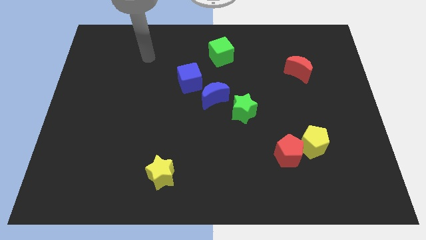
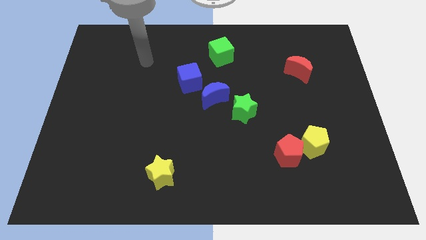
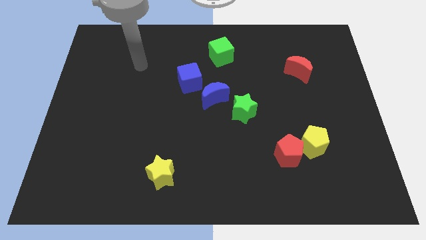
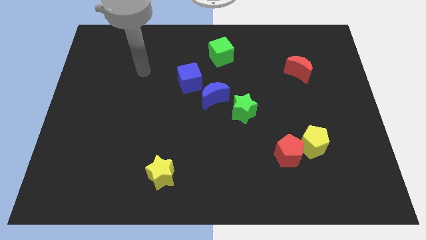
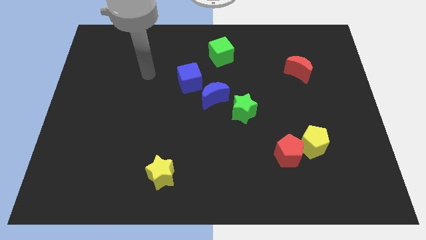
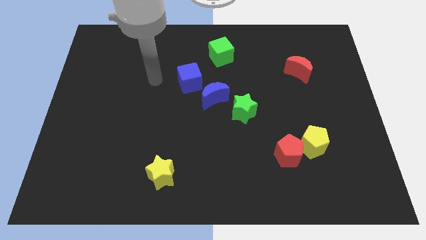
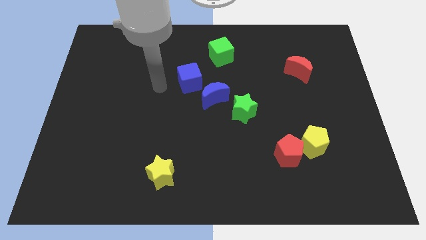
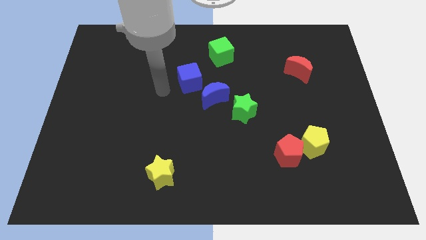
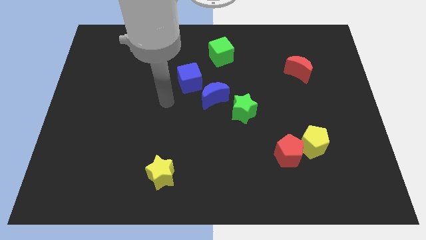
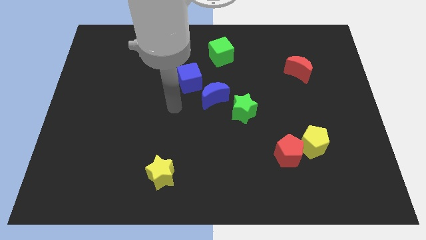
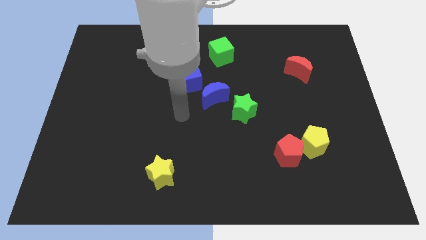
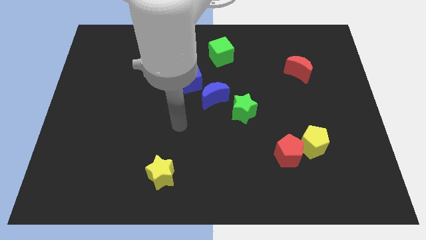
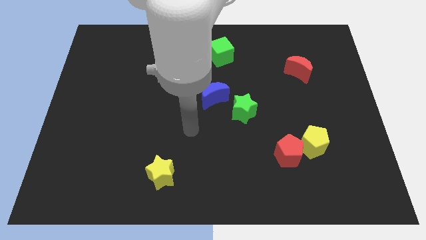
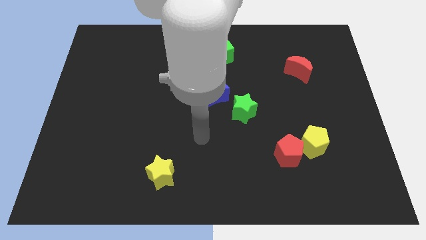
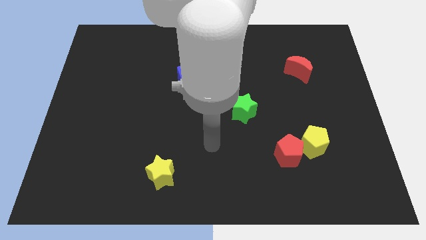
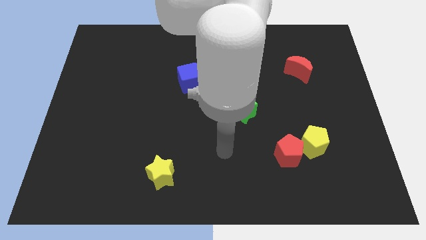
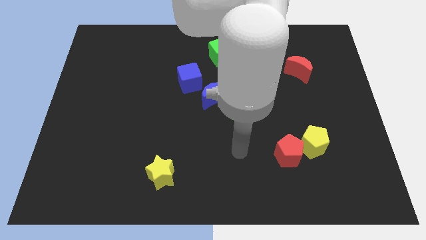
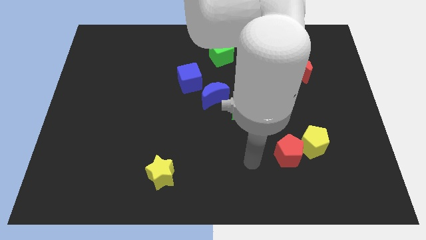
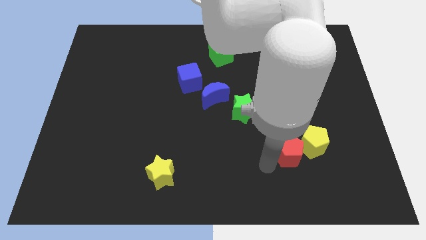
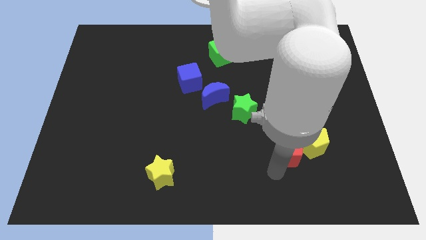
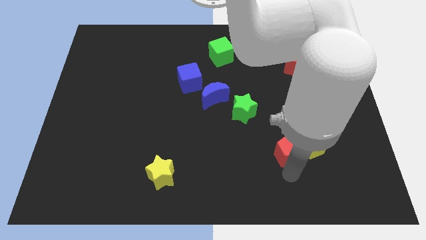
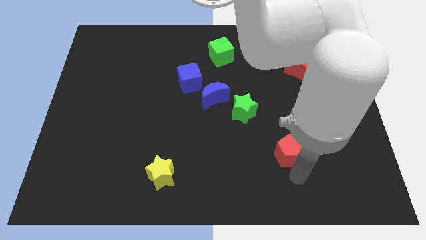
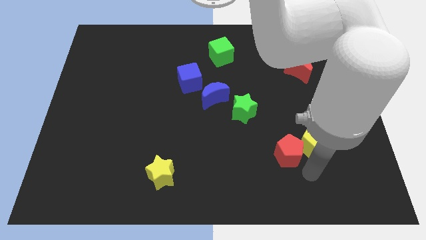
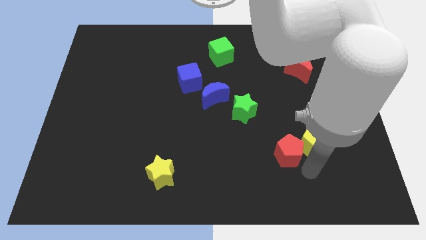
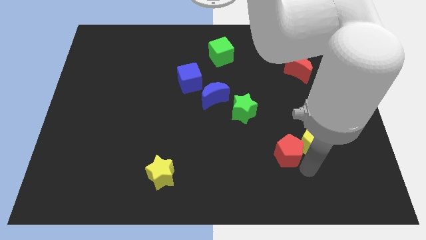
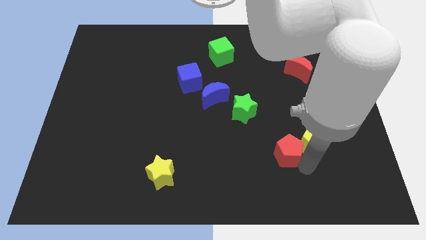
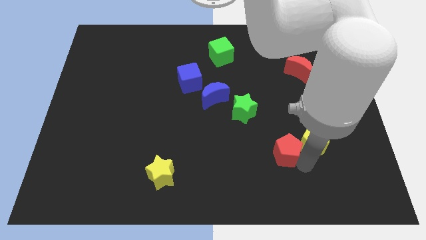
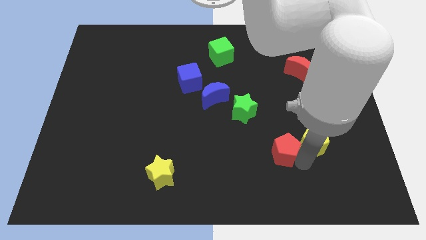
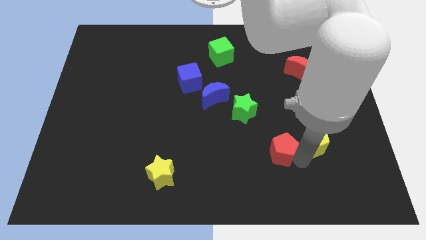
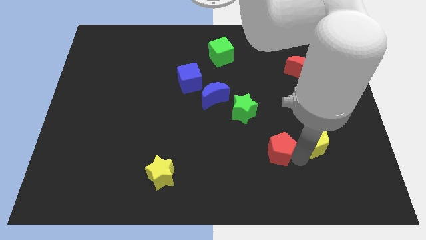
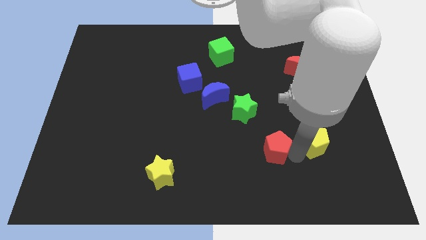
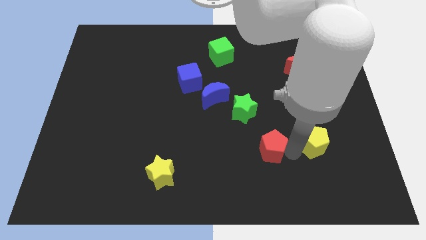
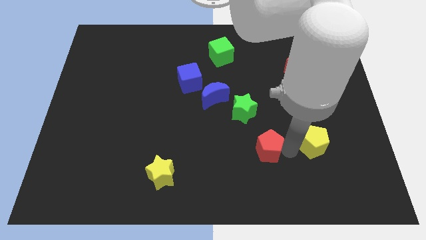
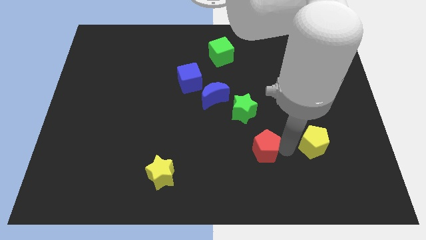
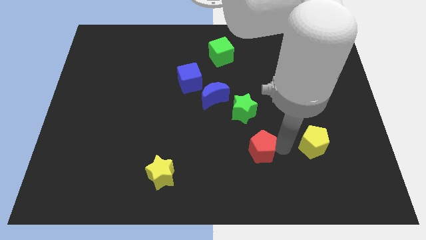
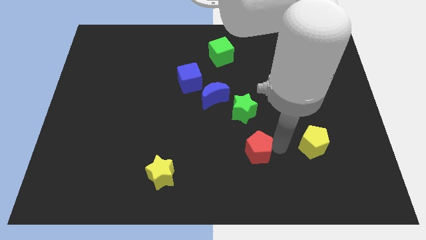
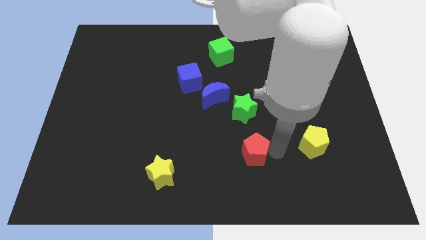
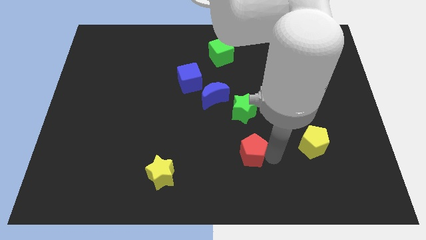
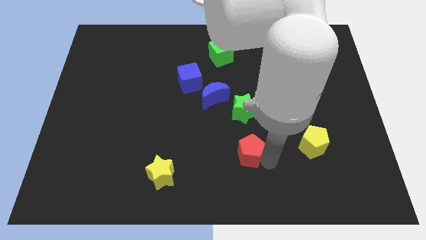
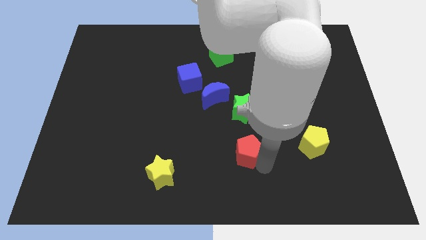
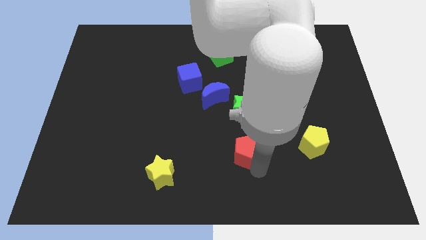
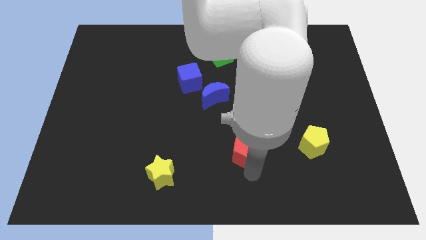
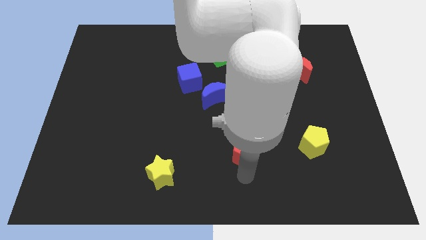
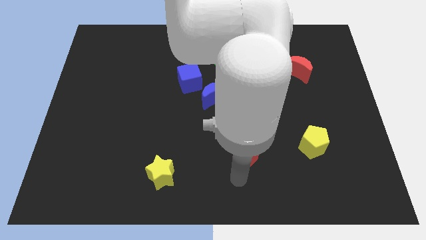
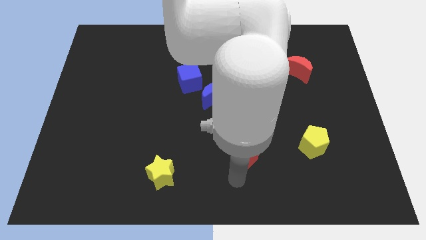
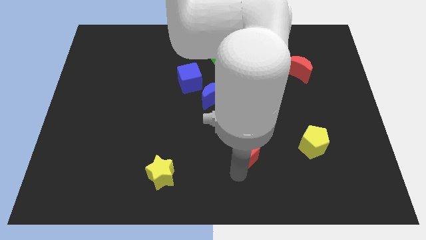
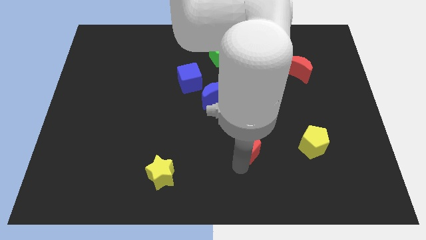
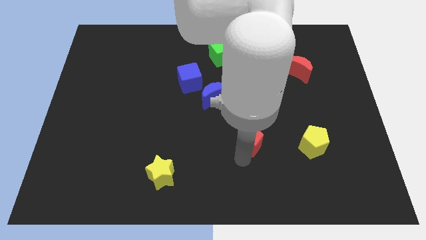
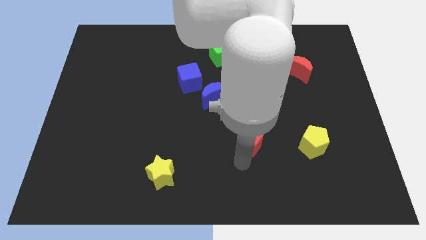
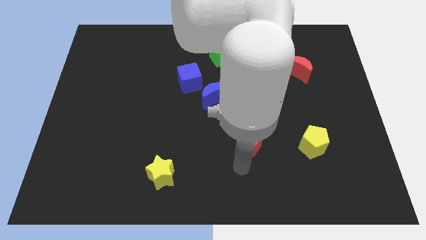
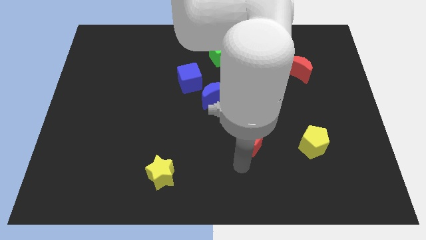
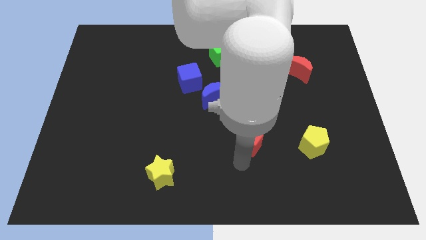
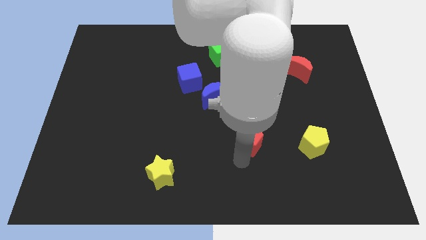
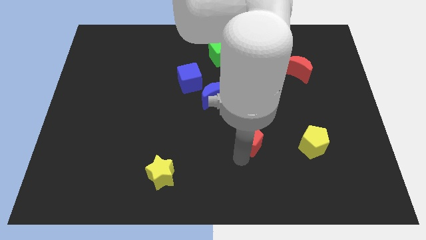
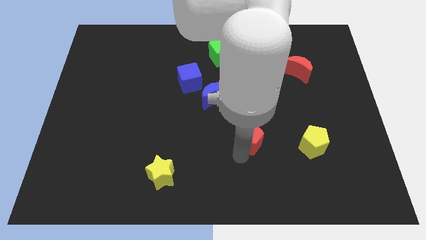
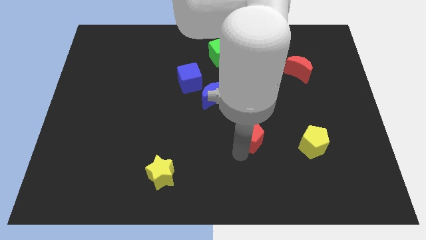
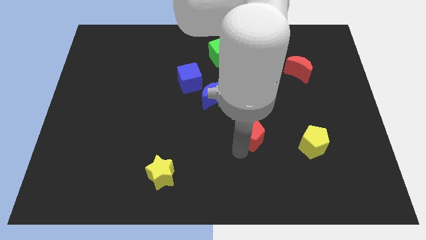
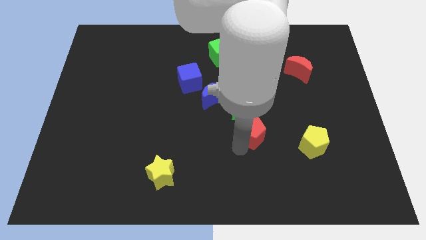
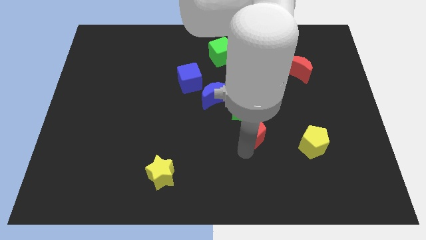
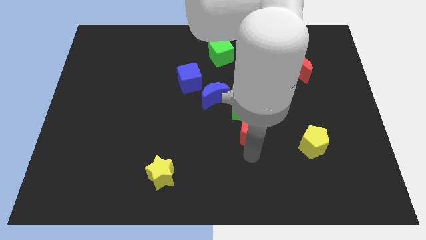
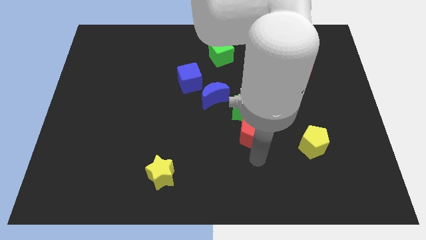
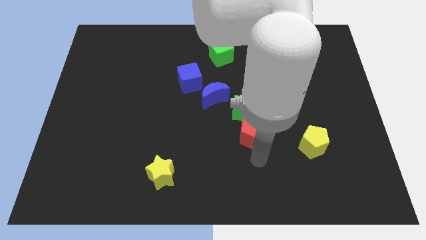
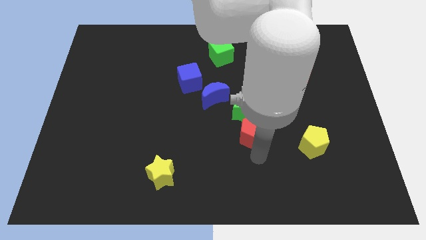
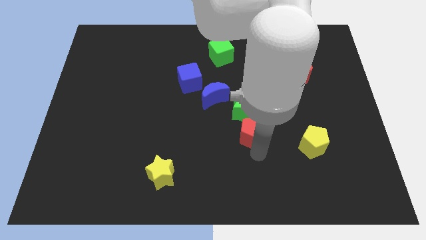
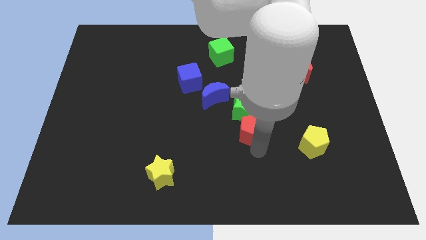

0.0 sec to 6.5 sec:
push the red pentagon towards the green star

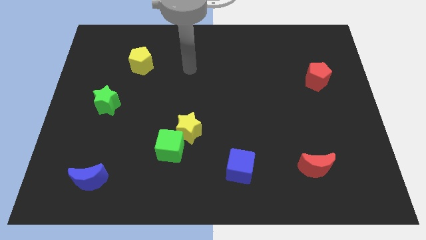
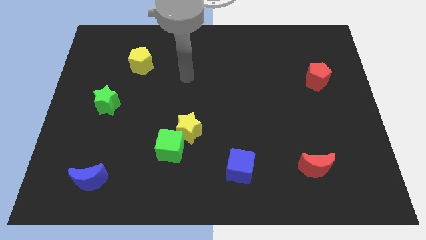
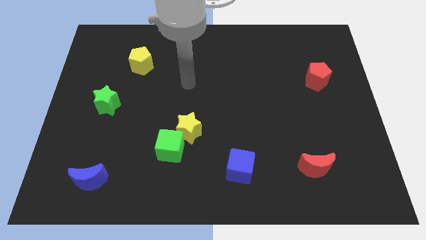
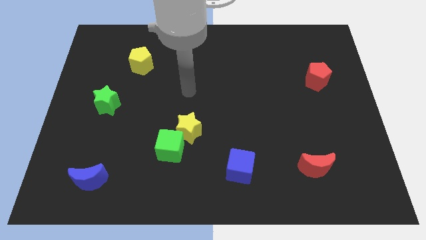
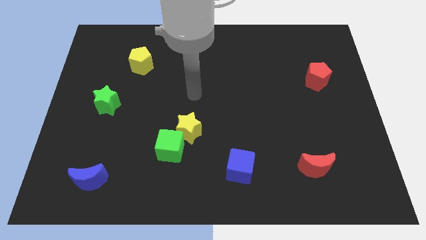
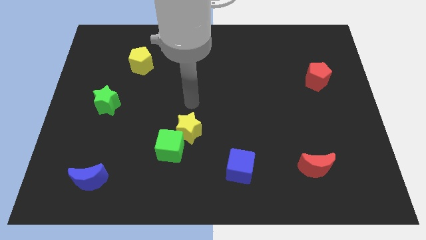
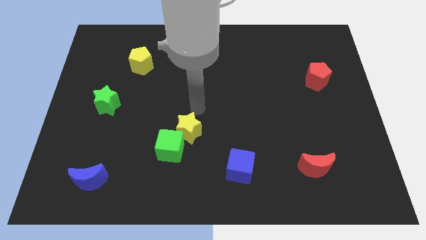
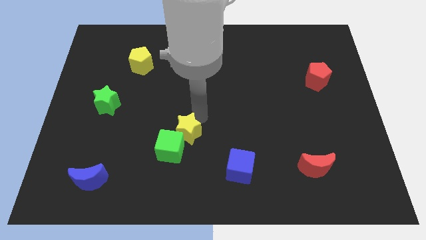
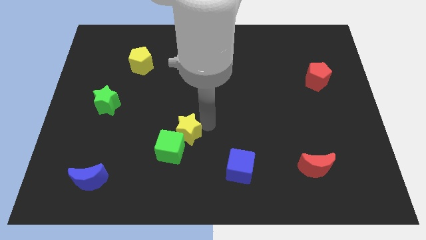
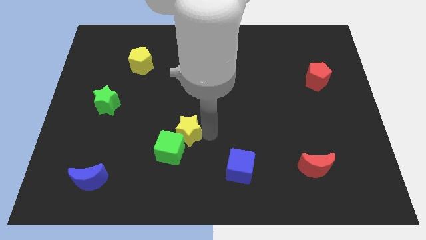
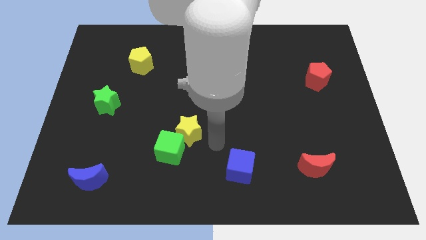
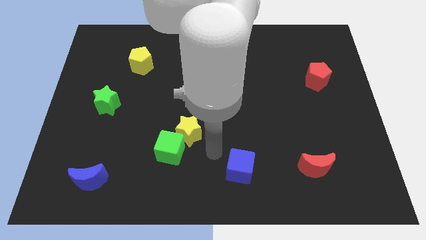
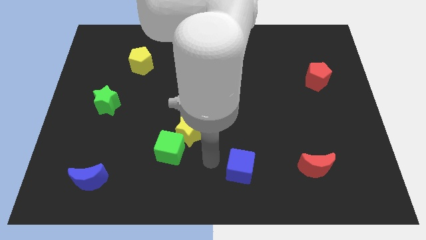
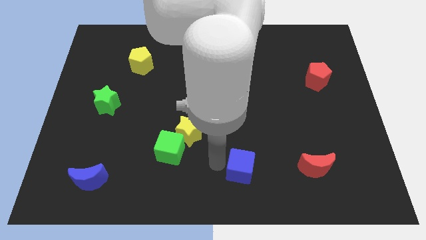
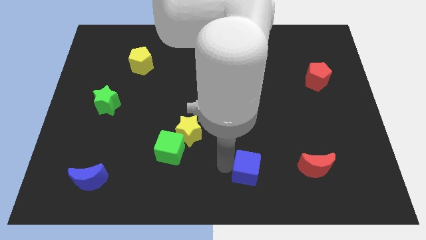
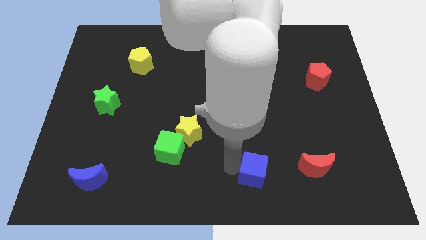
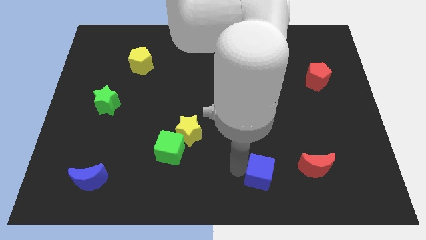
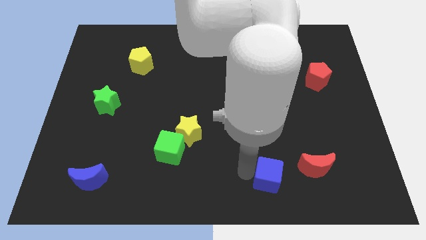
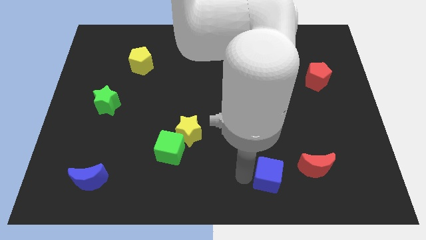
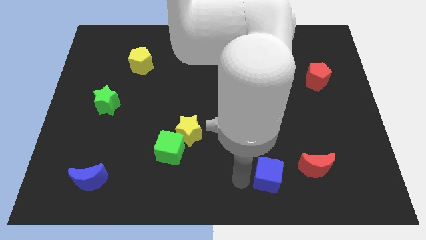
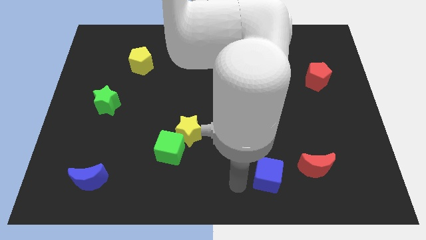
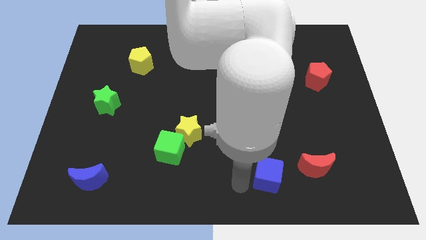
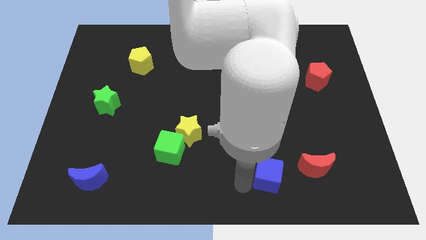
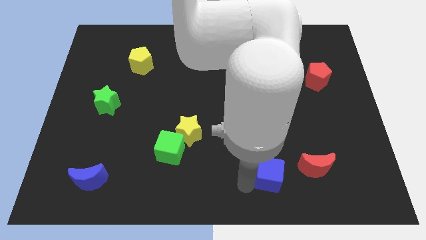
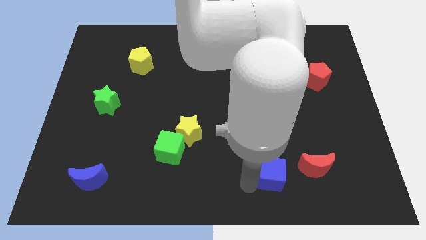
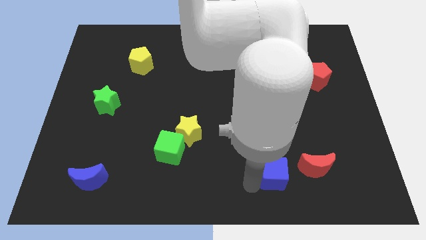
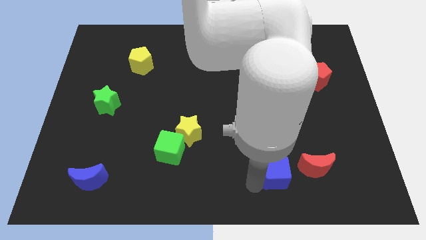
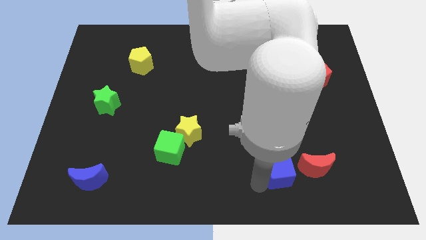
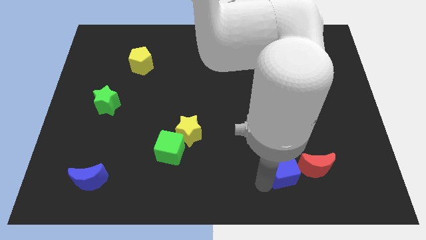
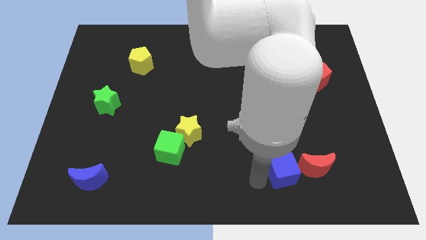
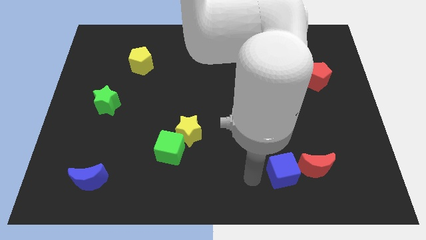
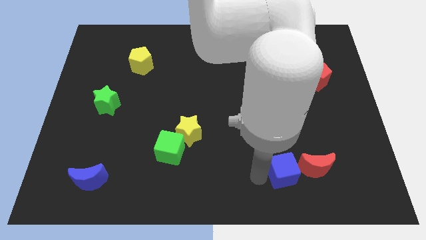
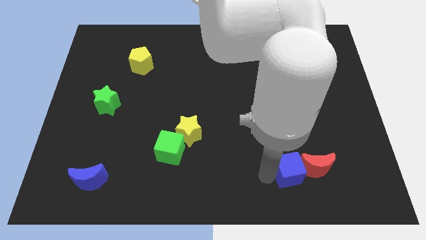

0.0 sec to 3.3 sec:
push the blue cube to the red moon
